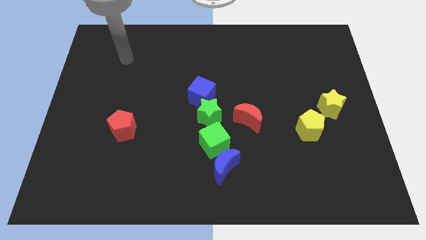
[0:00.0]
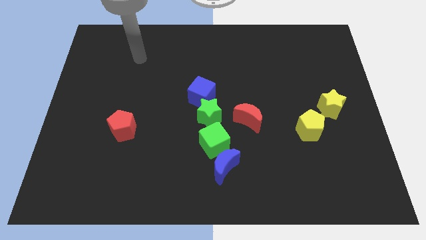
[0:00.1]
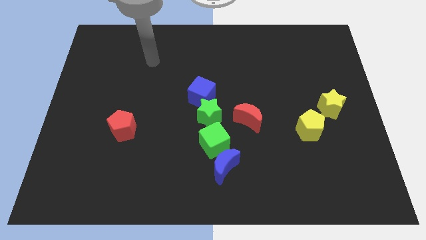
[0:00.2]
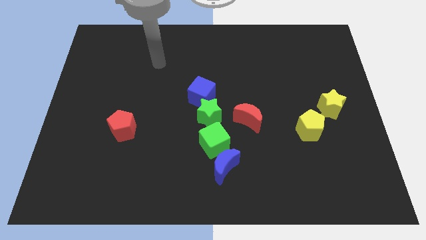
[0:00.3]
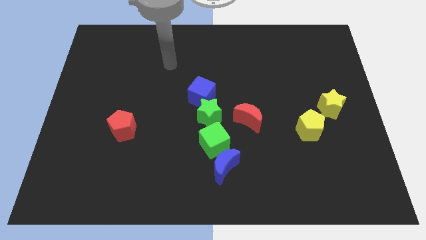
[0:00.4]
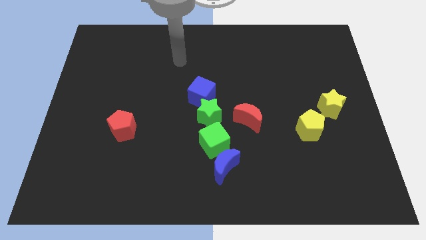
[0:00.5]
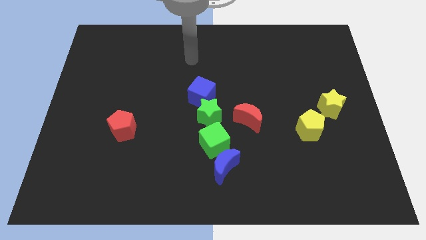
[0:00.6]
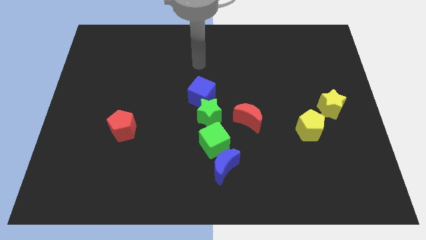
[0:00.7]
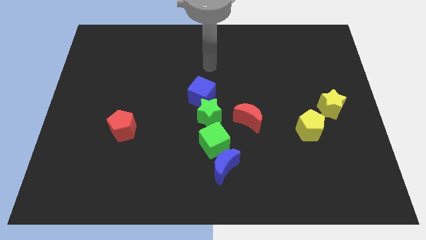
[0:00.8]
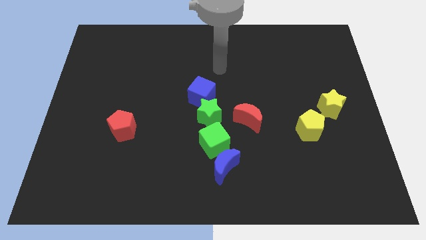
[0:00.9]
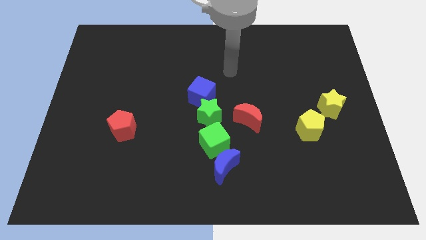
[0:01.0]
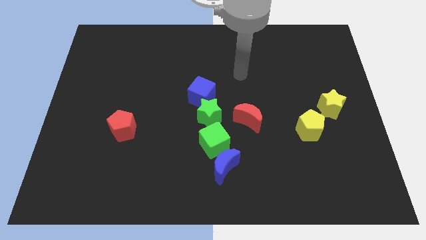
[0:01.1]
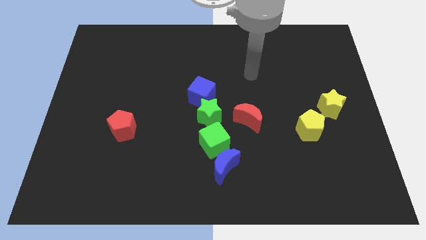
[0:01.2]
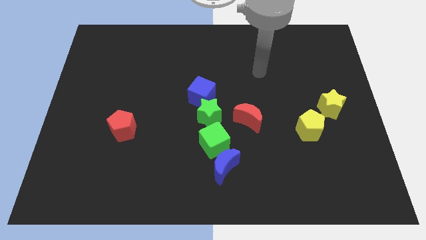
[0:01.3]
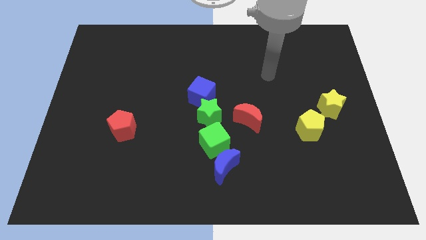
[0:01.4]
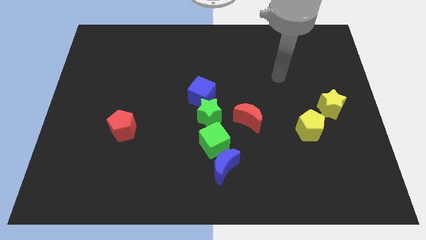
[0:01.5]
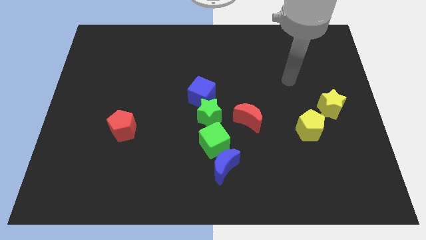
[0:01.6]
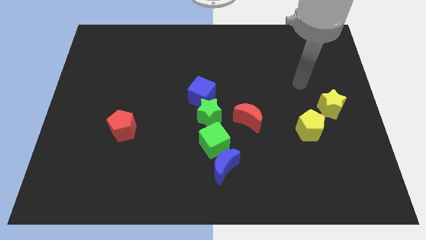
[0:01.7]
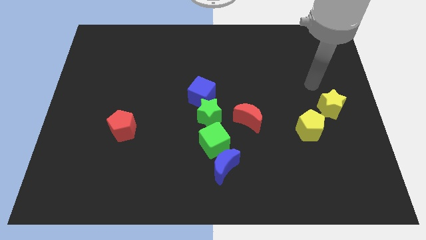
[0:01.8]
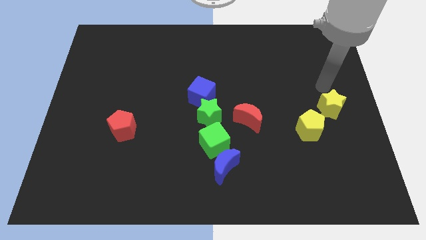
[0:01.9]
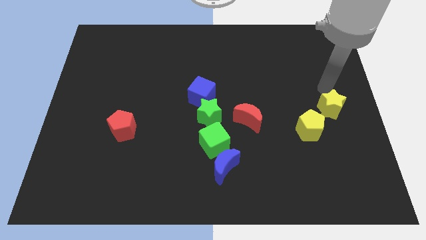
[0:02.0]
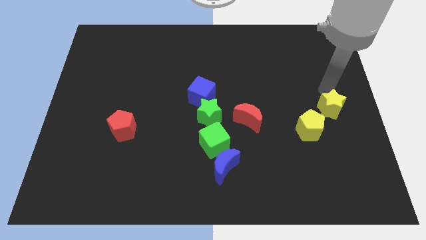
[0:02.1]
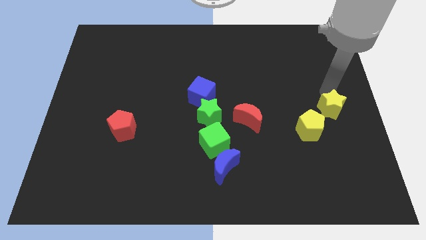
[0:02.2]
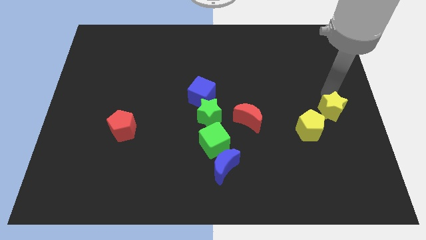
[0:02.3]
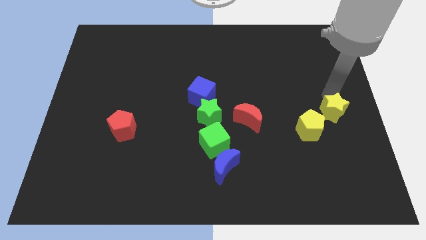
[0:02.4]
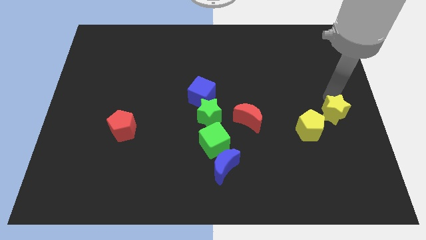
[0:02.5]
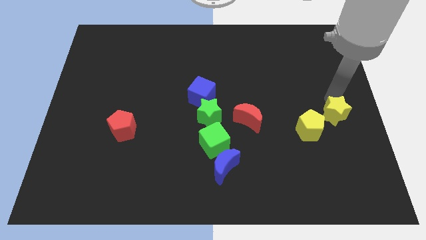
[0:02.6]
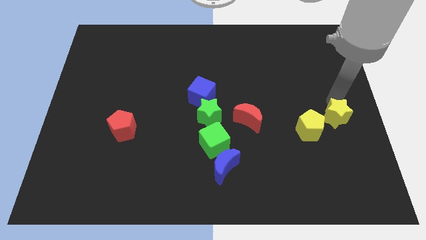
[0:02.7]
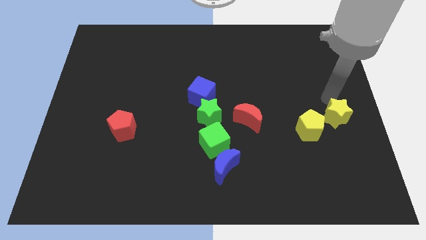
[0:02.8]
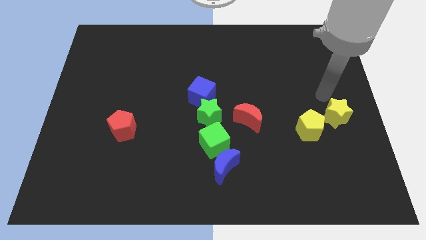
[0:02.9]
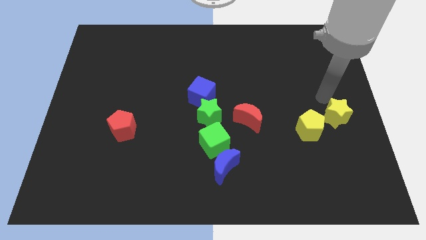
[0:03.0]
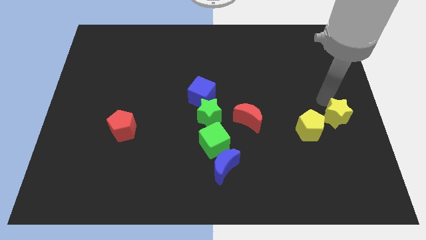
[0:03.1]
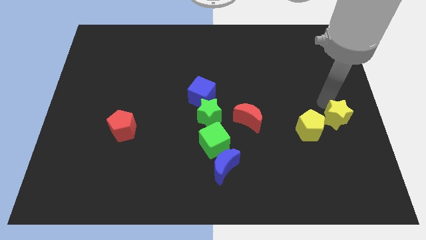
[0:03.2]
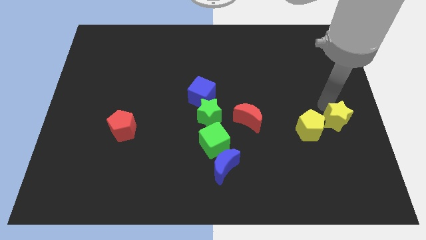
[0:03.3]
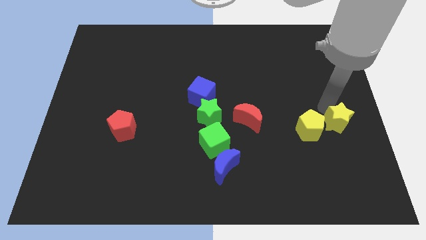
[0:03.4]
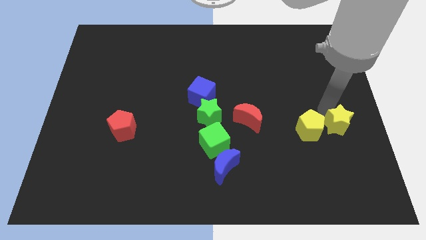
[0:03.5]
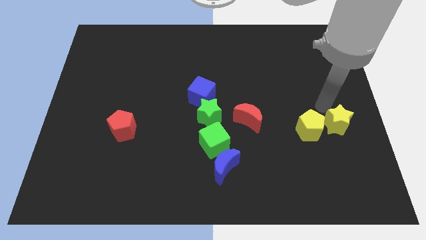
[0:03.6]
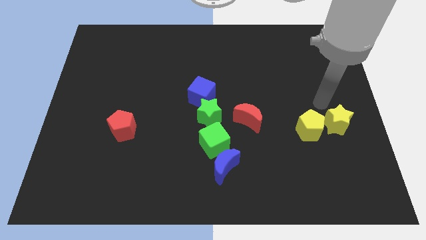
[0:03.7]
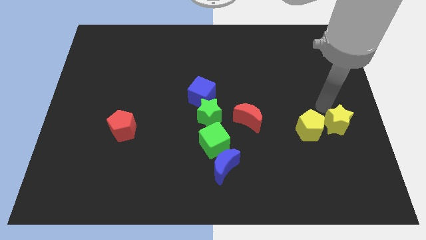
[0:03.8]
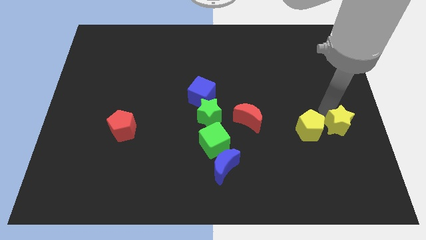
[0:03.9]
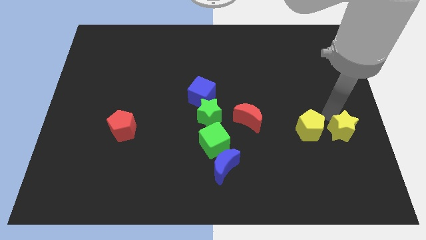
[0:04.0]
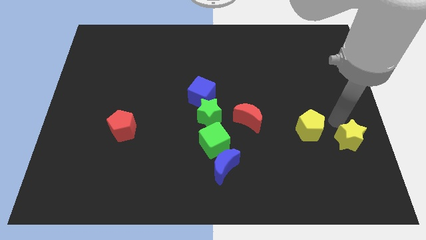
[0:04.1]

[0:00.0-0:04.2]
move the yellow star a bit downwards

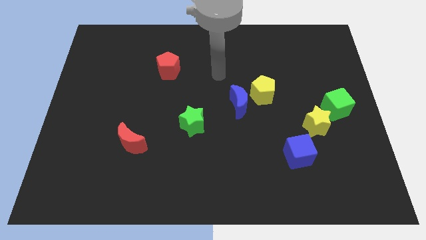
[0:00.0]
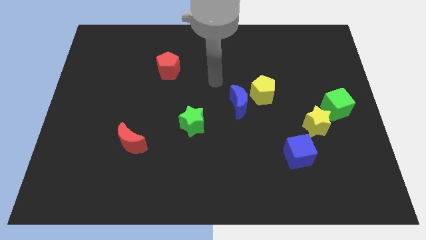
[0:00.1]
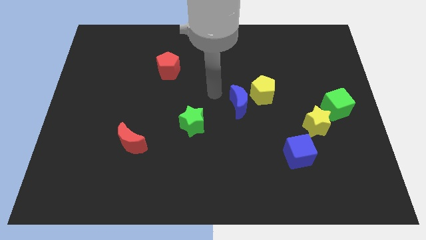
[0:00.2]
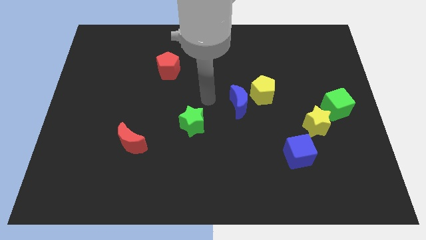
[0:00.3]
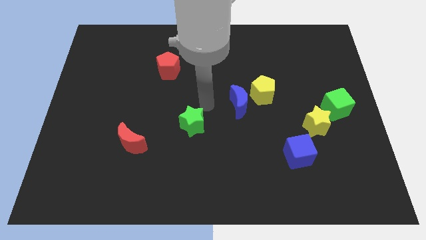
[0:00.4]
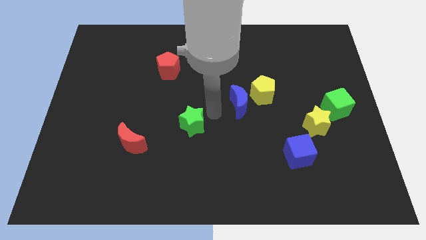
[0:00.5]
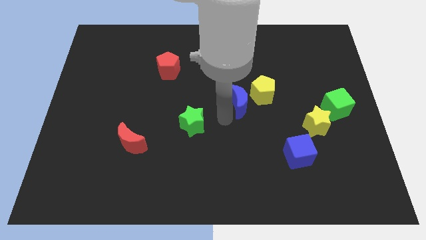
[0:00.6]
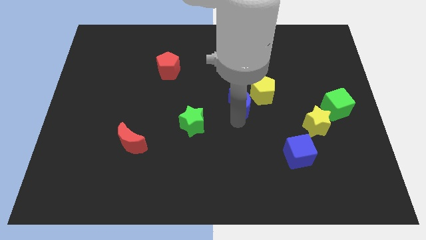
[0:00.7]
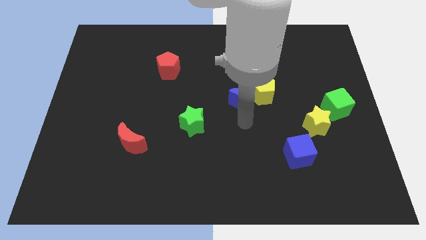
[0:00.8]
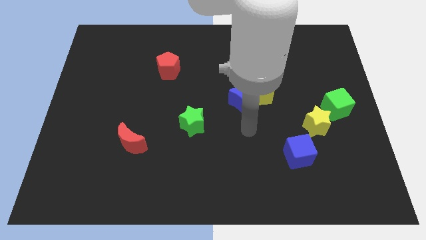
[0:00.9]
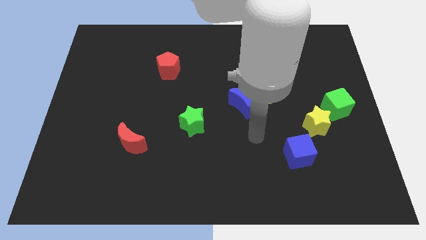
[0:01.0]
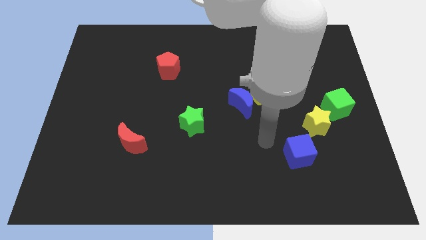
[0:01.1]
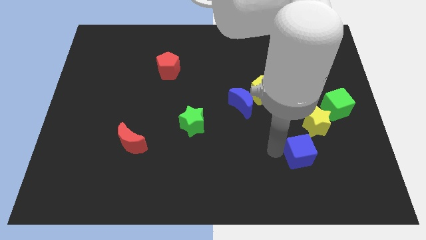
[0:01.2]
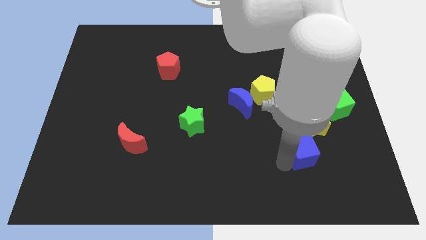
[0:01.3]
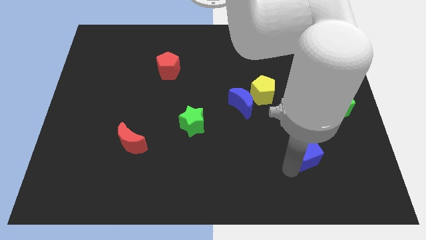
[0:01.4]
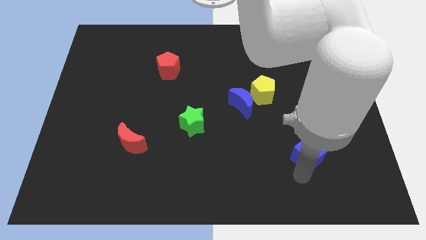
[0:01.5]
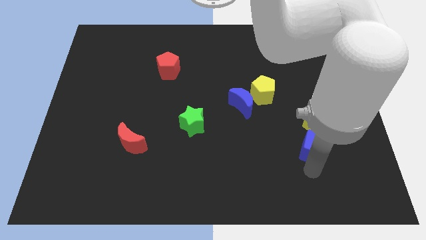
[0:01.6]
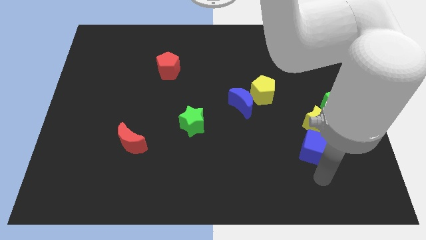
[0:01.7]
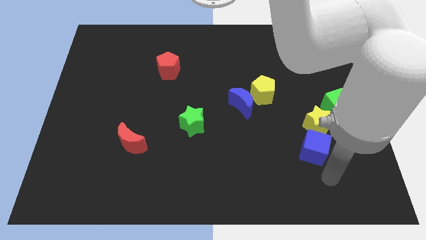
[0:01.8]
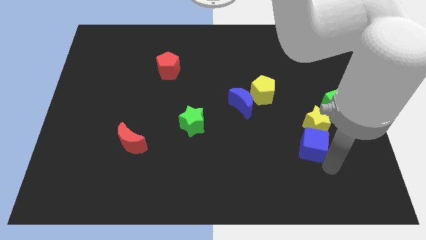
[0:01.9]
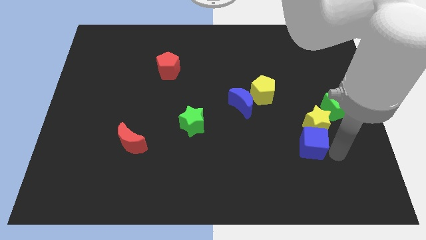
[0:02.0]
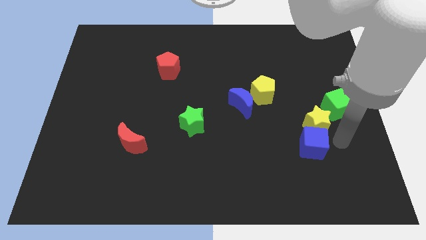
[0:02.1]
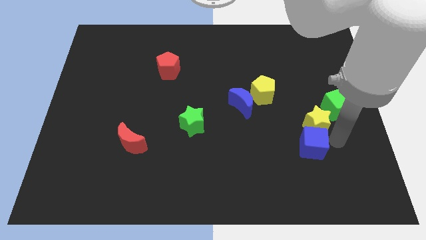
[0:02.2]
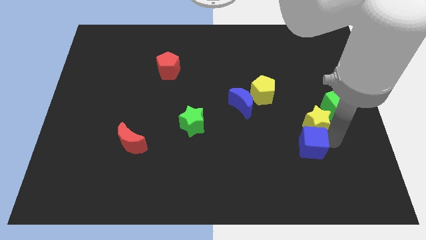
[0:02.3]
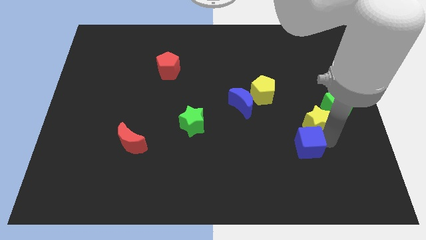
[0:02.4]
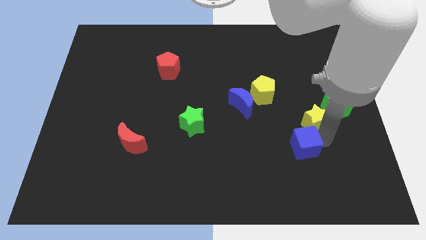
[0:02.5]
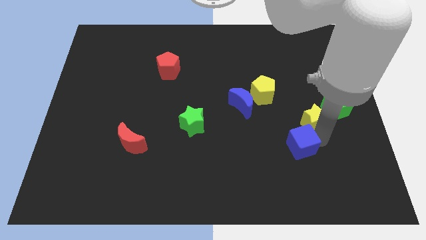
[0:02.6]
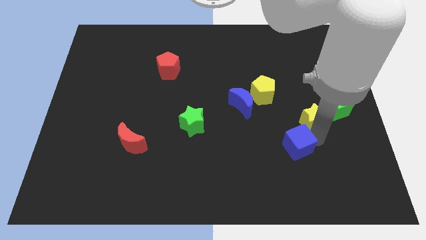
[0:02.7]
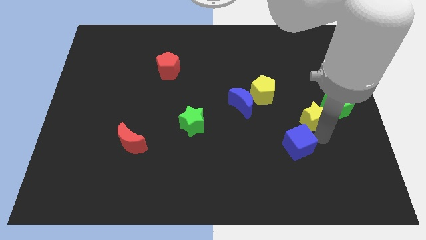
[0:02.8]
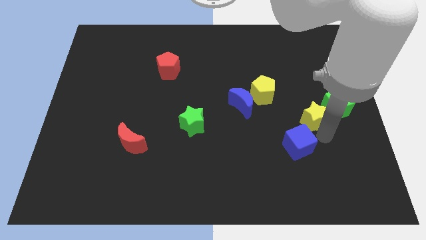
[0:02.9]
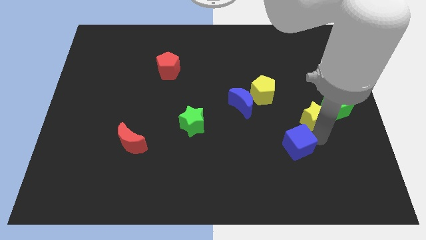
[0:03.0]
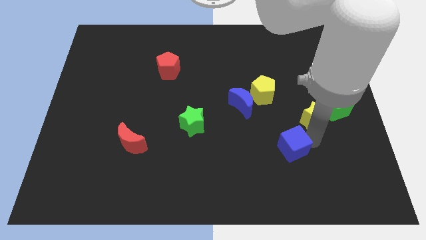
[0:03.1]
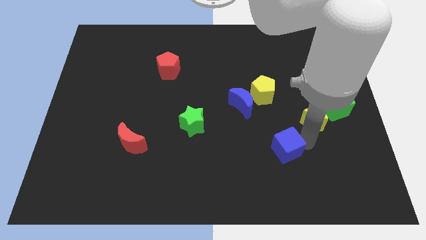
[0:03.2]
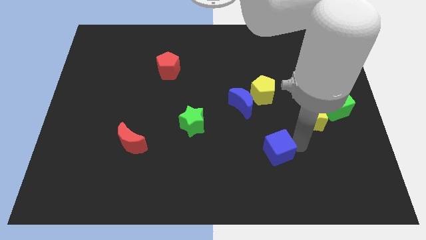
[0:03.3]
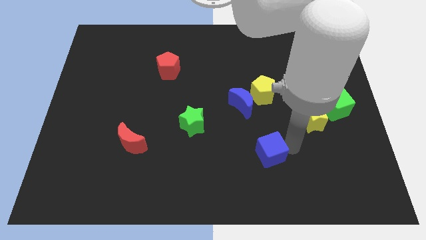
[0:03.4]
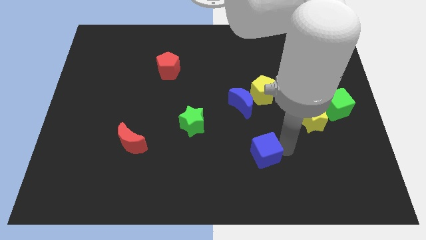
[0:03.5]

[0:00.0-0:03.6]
push the blue cube a little left

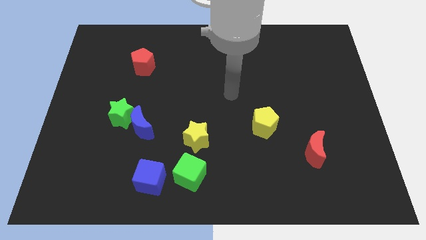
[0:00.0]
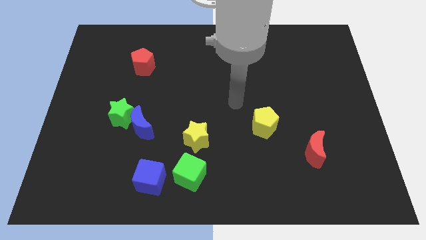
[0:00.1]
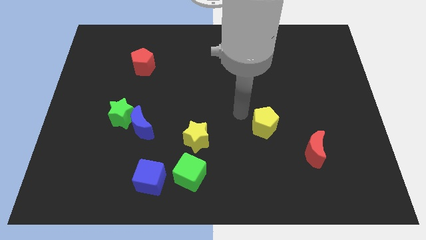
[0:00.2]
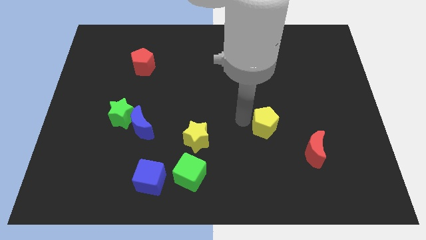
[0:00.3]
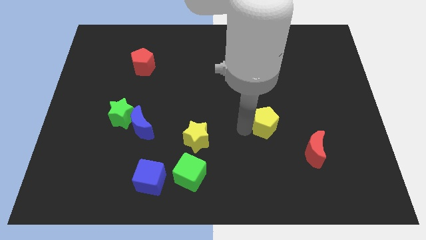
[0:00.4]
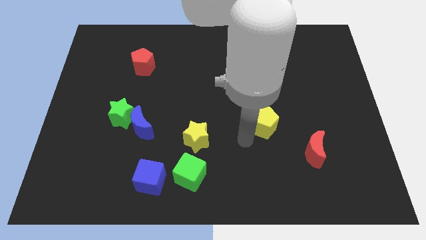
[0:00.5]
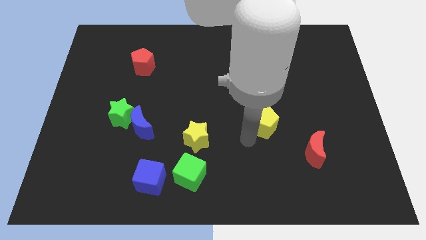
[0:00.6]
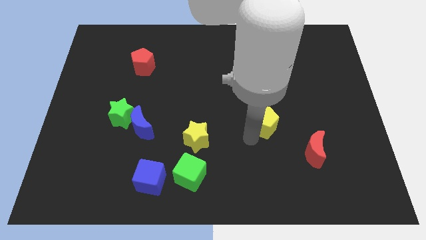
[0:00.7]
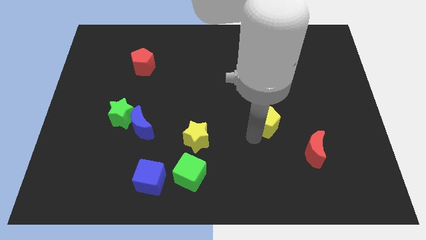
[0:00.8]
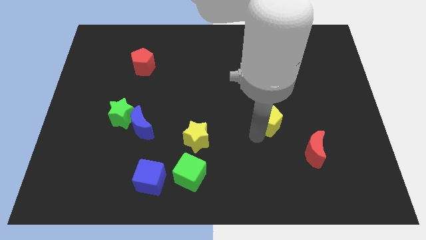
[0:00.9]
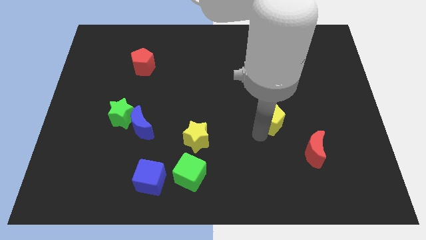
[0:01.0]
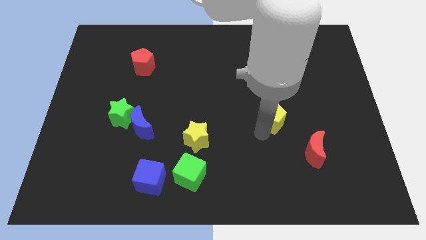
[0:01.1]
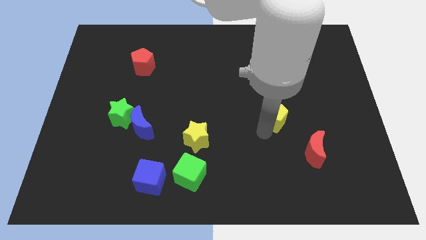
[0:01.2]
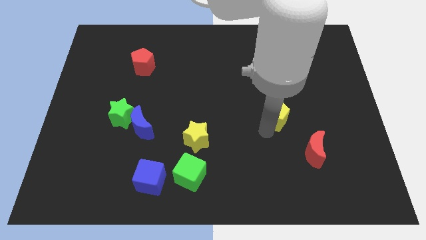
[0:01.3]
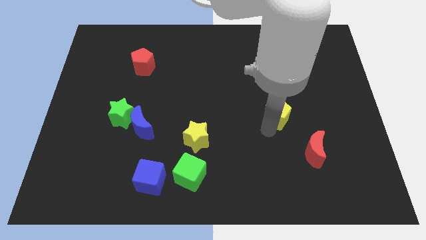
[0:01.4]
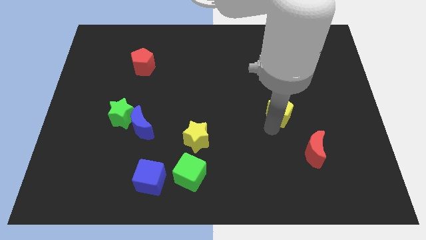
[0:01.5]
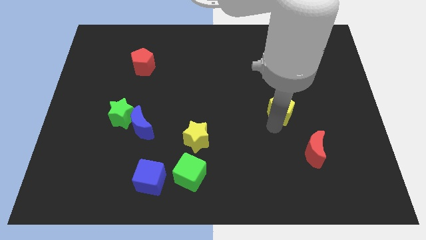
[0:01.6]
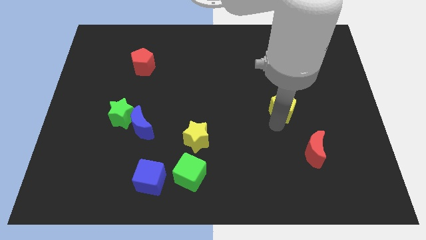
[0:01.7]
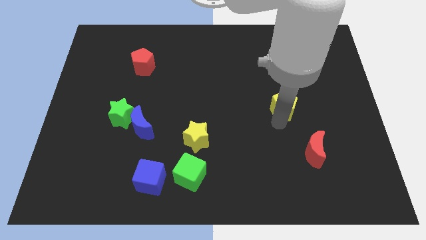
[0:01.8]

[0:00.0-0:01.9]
slightly move the yellow pentagon upwards and then to the right
